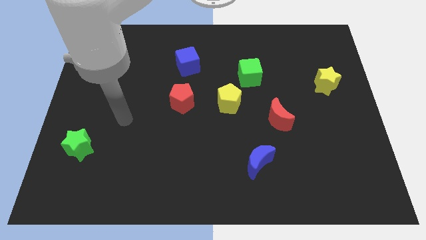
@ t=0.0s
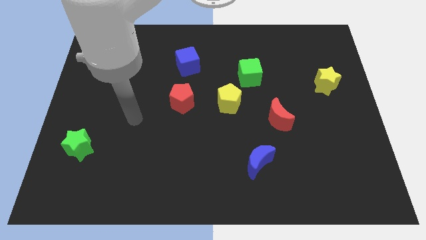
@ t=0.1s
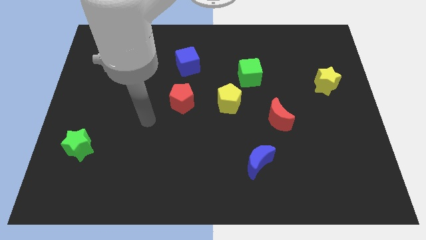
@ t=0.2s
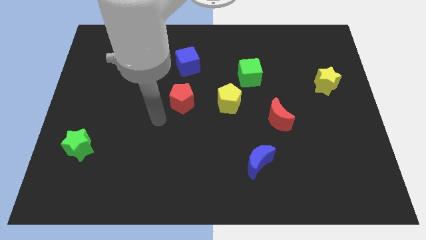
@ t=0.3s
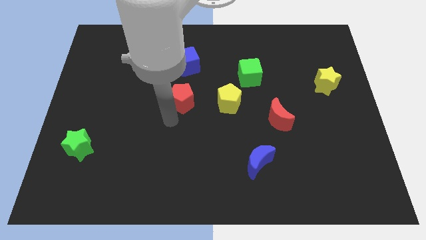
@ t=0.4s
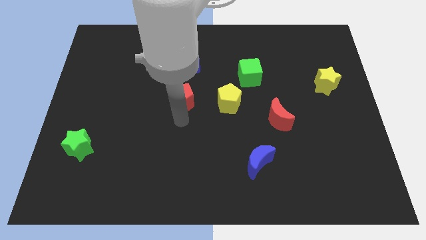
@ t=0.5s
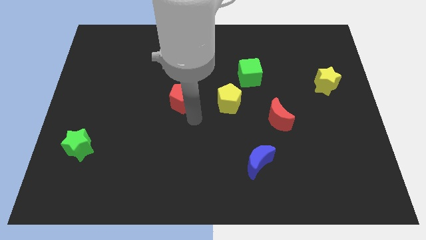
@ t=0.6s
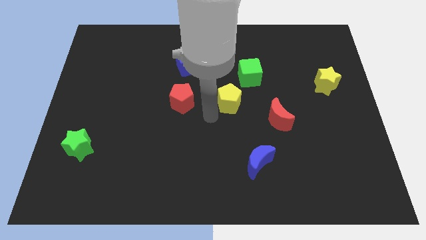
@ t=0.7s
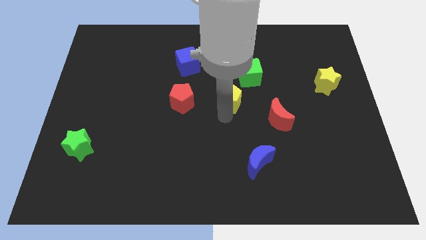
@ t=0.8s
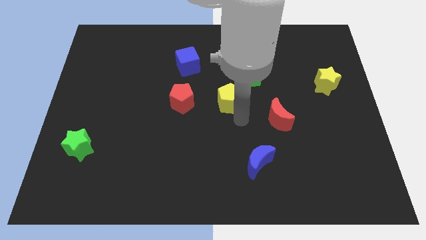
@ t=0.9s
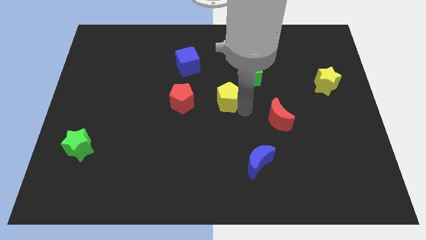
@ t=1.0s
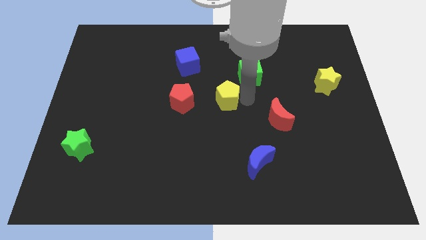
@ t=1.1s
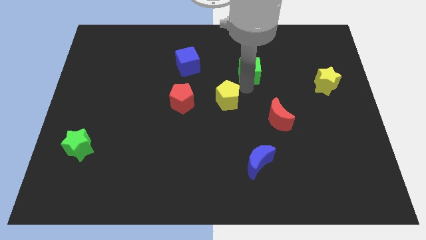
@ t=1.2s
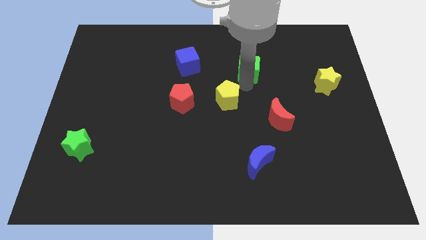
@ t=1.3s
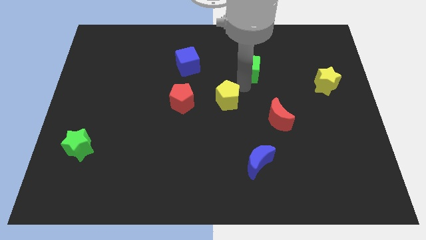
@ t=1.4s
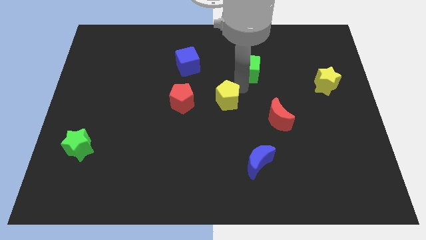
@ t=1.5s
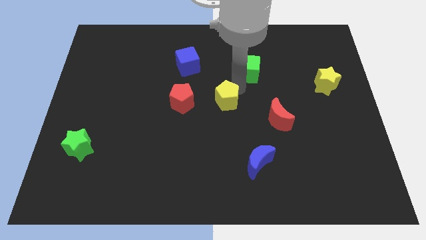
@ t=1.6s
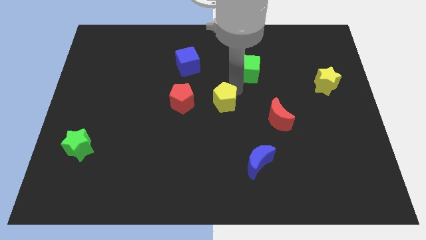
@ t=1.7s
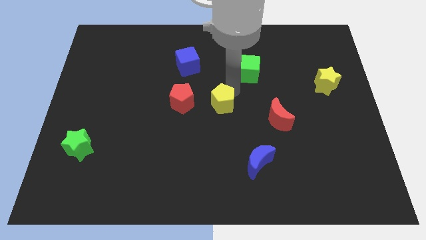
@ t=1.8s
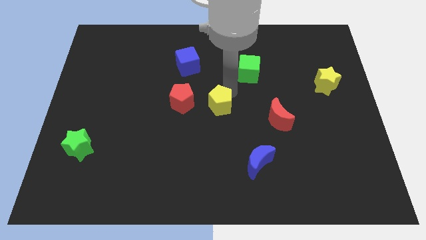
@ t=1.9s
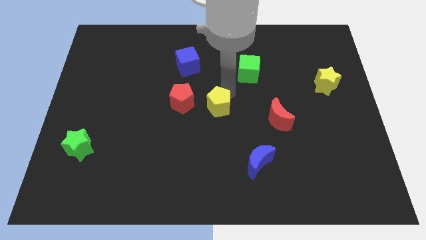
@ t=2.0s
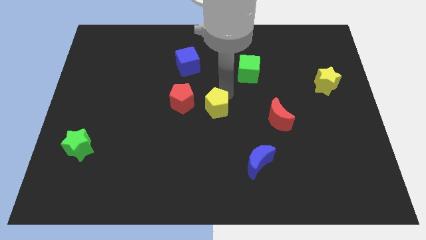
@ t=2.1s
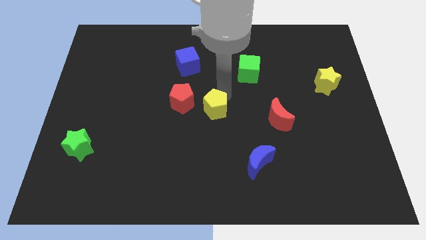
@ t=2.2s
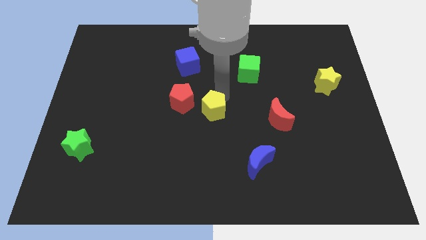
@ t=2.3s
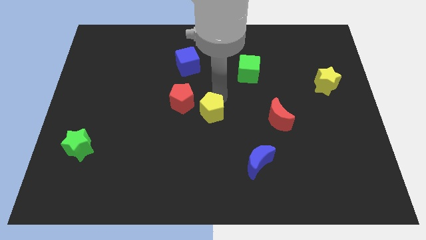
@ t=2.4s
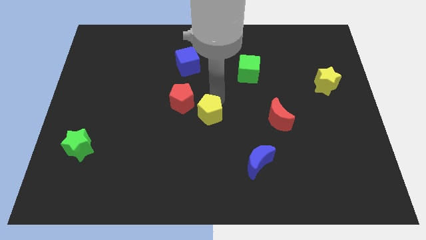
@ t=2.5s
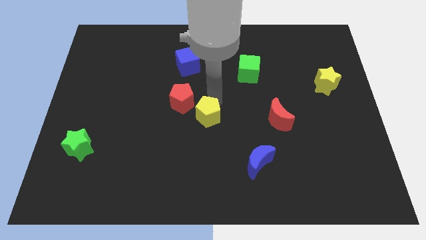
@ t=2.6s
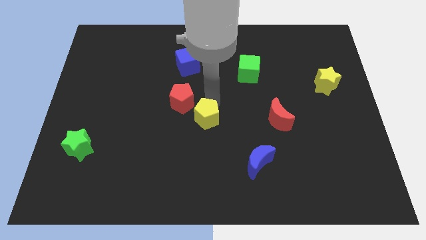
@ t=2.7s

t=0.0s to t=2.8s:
slide the yellow pentagon slightly down and then left

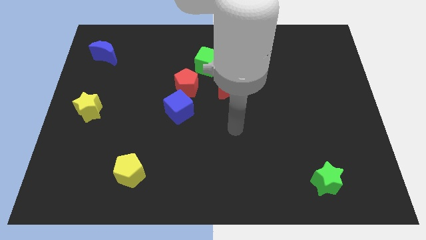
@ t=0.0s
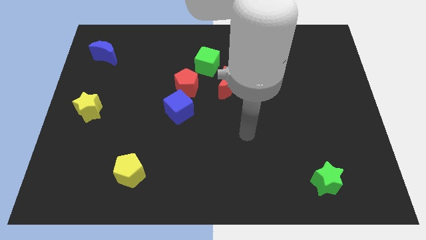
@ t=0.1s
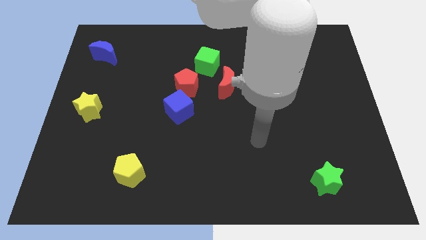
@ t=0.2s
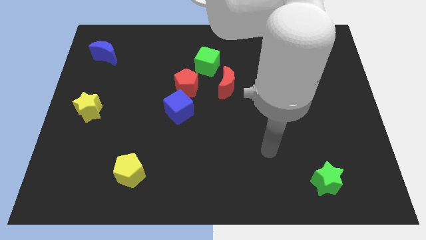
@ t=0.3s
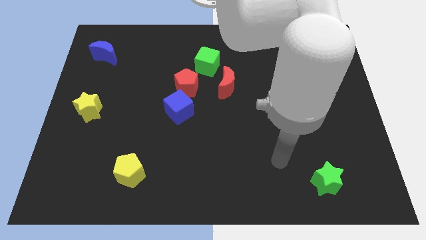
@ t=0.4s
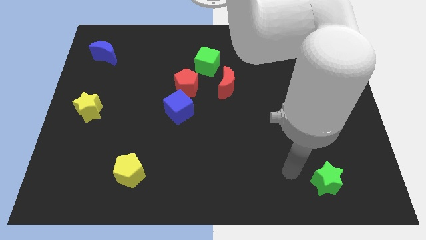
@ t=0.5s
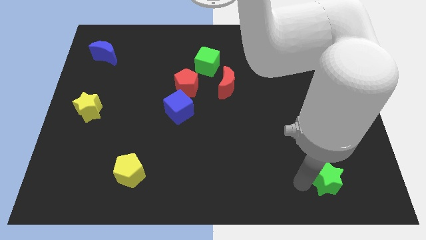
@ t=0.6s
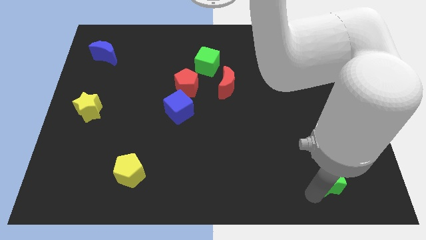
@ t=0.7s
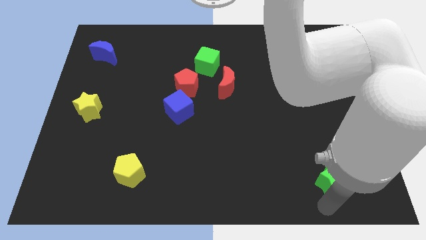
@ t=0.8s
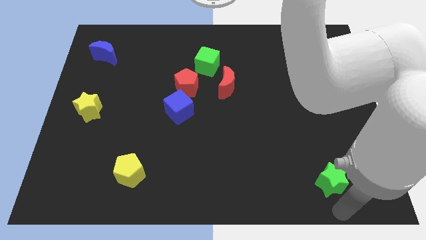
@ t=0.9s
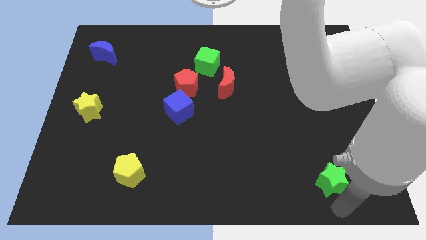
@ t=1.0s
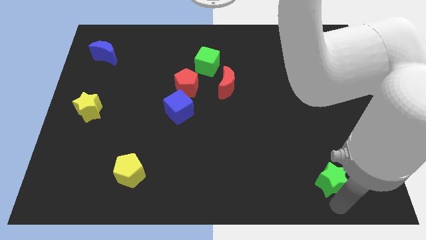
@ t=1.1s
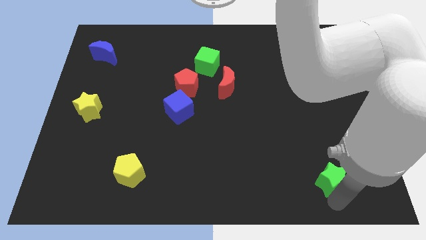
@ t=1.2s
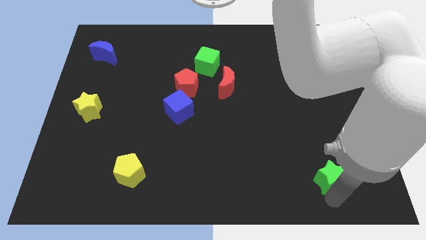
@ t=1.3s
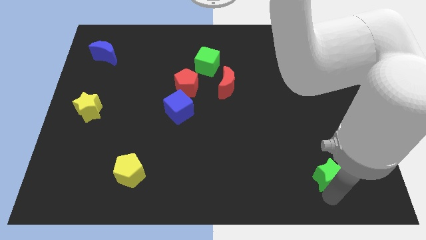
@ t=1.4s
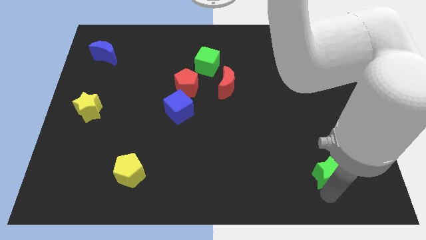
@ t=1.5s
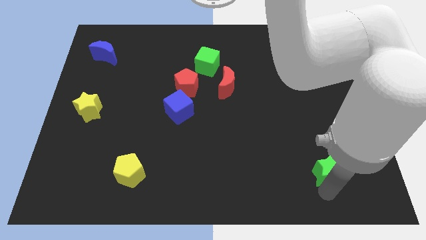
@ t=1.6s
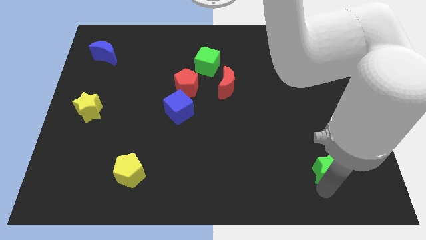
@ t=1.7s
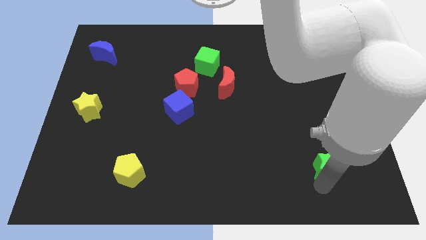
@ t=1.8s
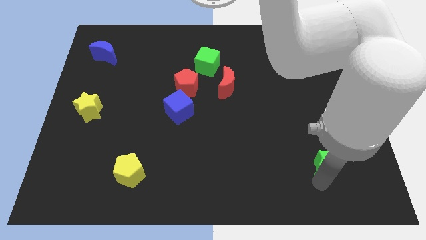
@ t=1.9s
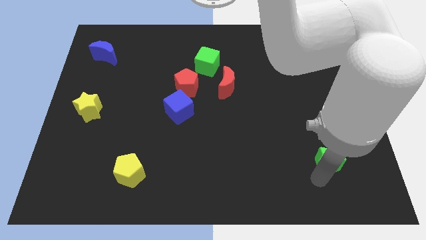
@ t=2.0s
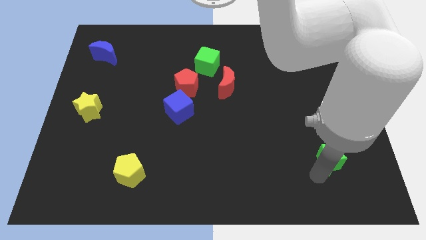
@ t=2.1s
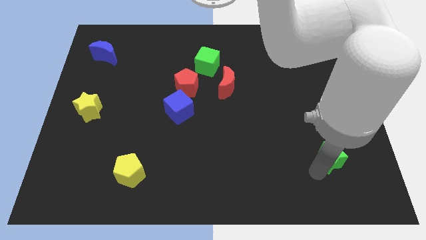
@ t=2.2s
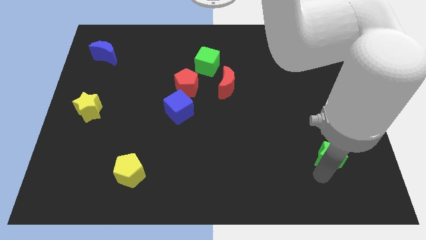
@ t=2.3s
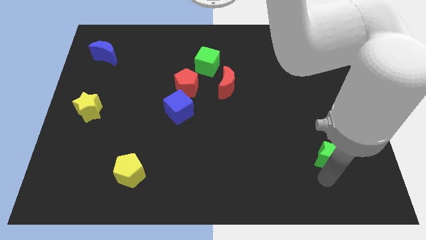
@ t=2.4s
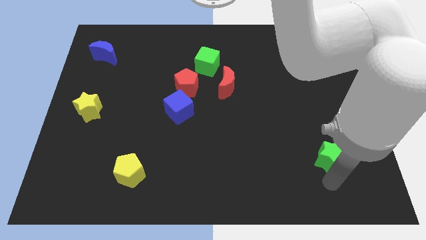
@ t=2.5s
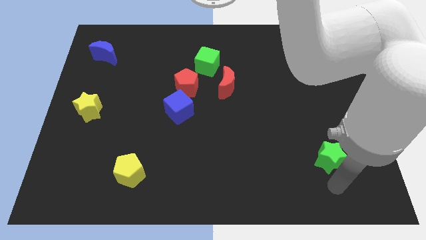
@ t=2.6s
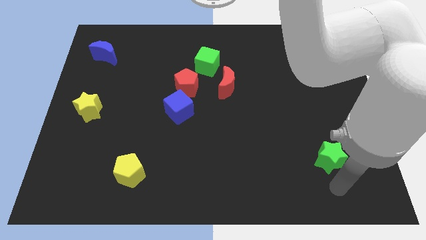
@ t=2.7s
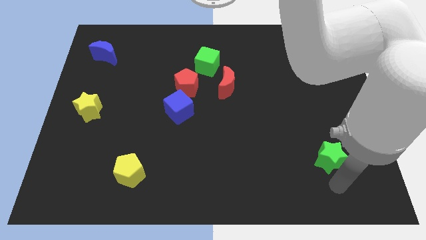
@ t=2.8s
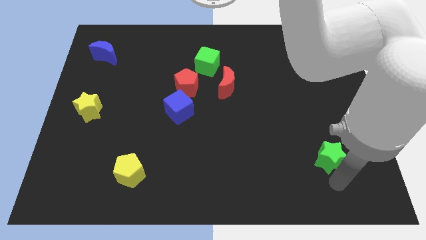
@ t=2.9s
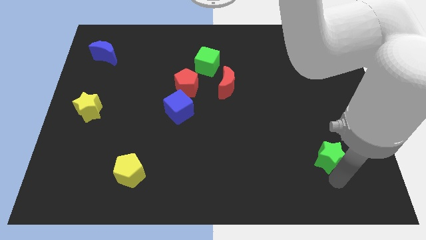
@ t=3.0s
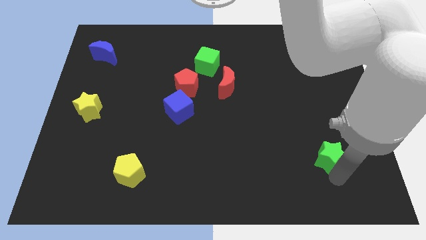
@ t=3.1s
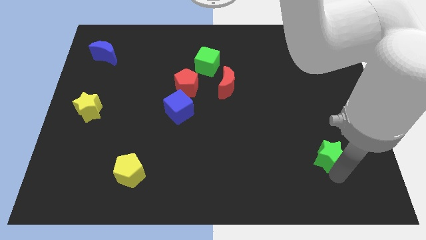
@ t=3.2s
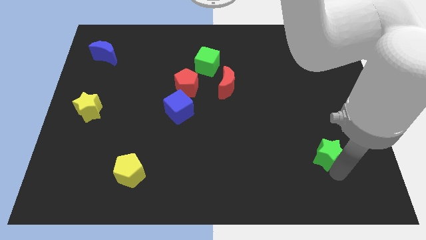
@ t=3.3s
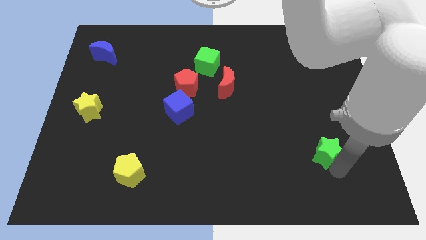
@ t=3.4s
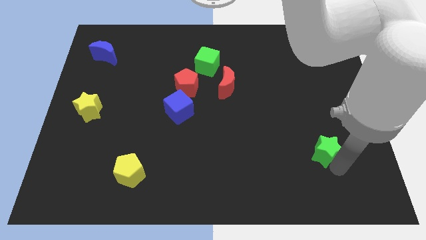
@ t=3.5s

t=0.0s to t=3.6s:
move the green star a little up

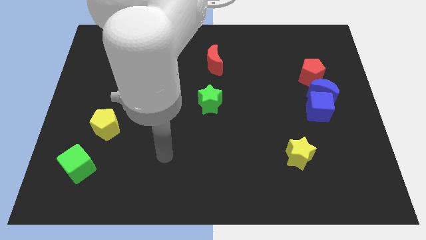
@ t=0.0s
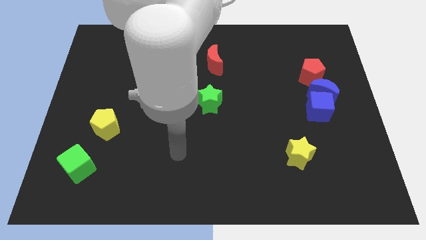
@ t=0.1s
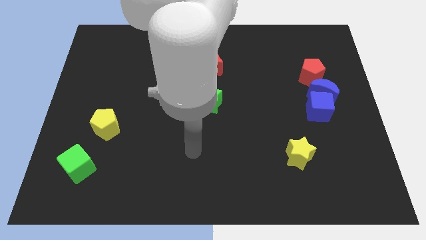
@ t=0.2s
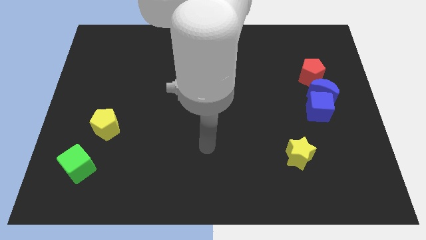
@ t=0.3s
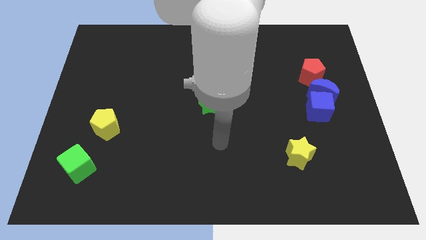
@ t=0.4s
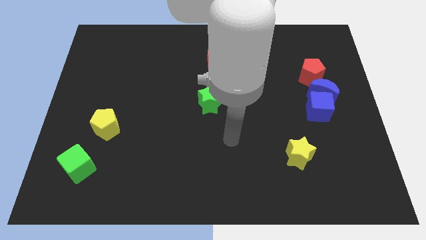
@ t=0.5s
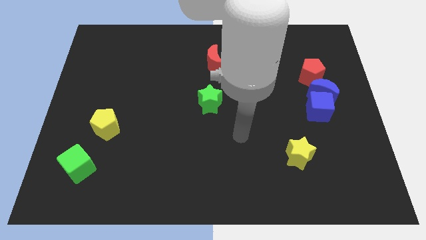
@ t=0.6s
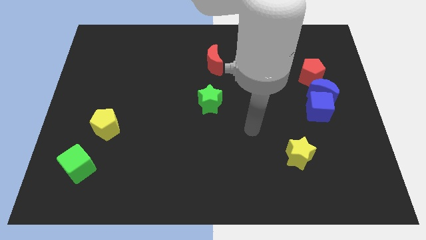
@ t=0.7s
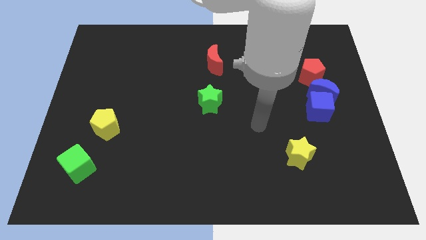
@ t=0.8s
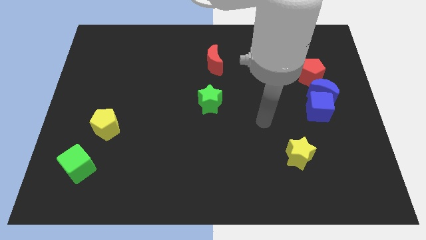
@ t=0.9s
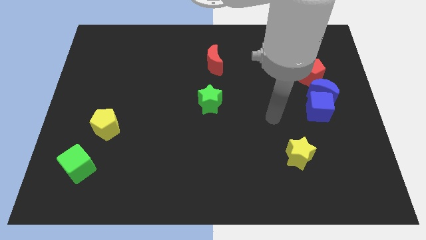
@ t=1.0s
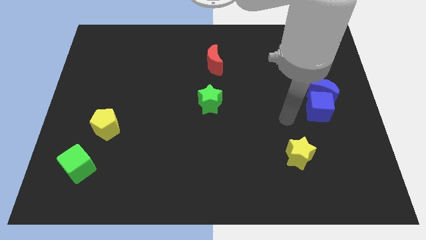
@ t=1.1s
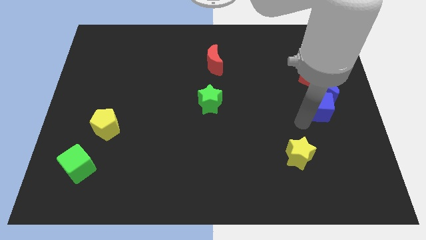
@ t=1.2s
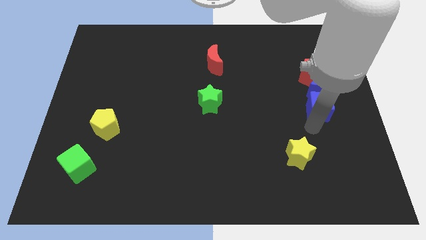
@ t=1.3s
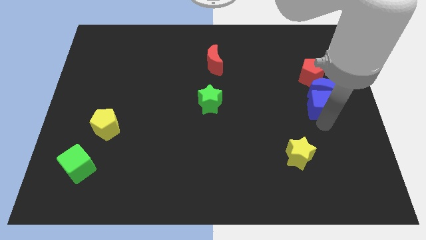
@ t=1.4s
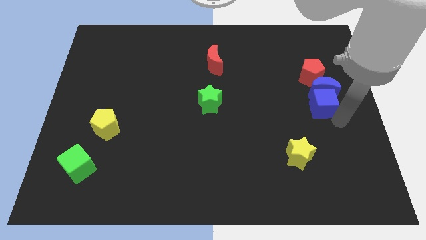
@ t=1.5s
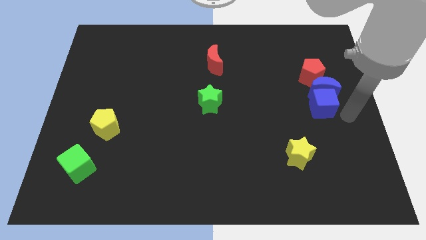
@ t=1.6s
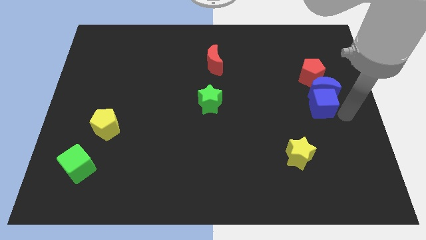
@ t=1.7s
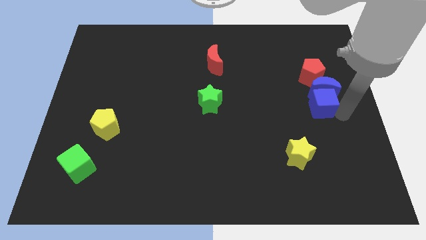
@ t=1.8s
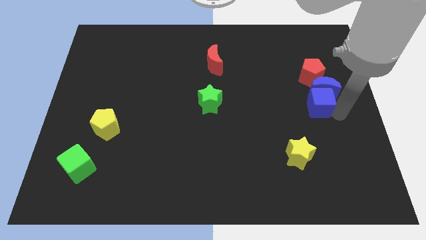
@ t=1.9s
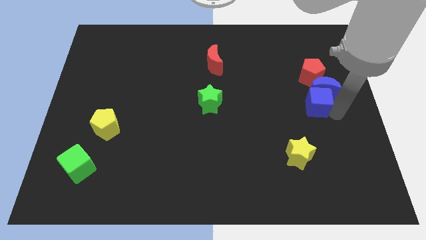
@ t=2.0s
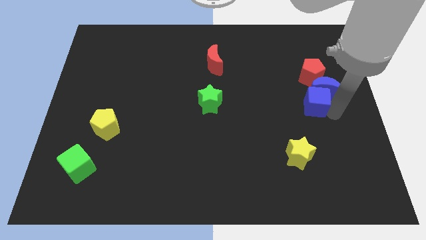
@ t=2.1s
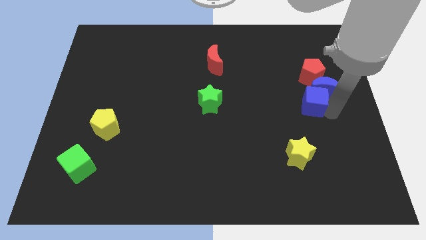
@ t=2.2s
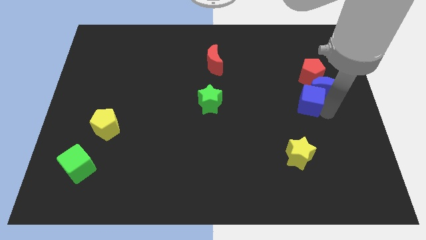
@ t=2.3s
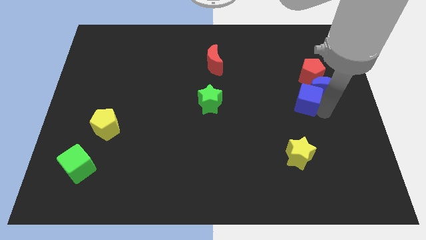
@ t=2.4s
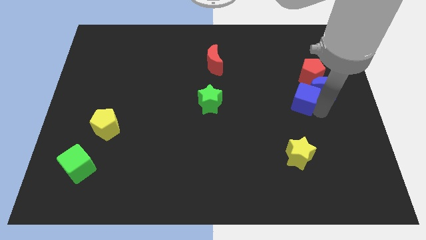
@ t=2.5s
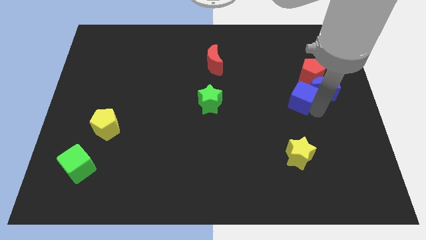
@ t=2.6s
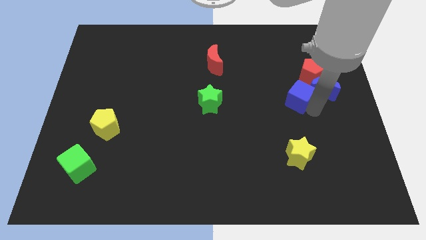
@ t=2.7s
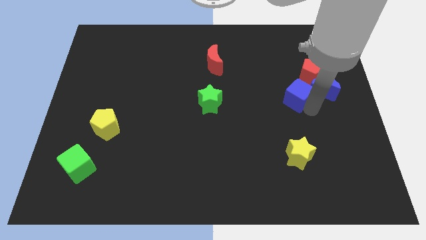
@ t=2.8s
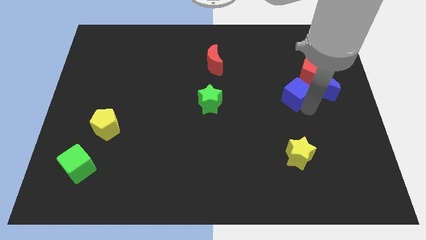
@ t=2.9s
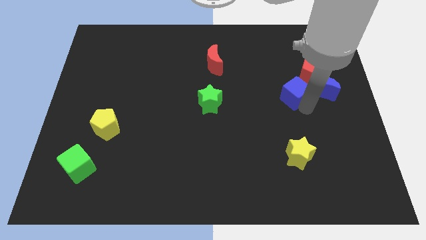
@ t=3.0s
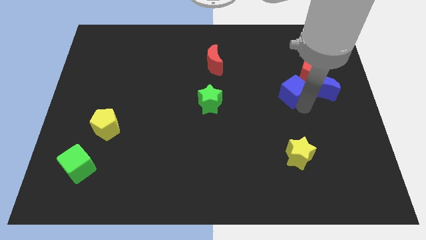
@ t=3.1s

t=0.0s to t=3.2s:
slide the blue cube a bit up and left
